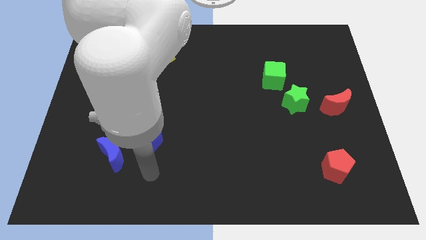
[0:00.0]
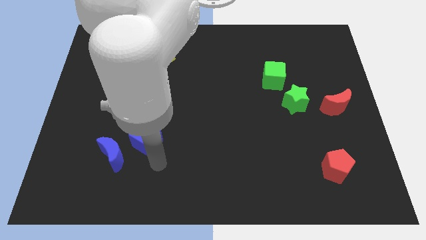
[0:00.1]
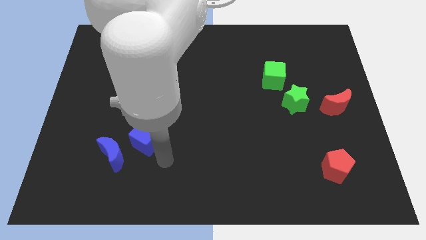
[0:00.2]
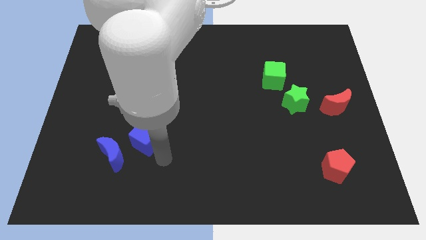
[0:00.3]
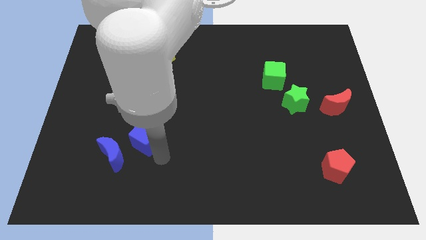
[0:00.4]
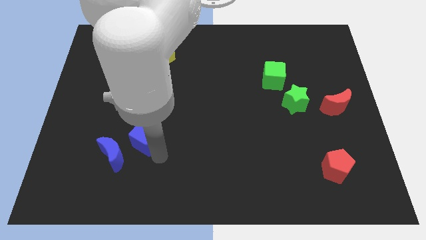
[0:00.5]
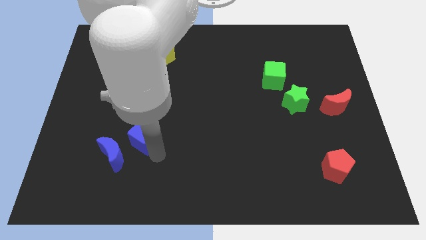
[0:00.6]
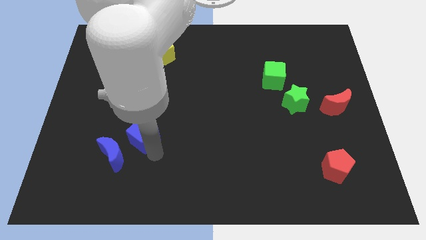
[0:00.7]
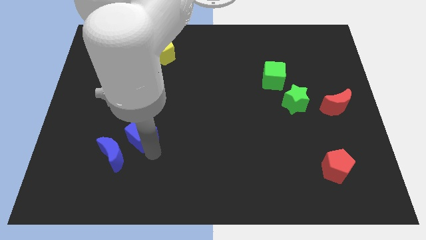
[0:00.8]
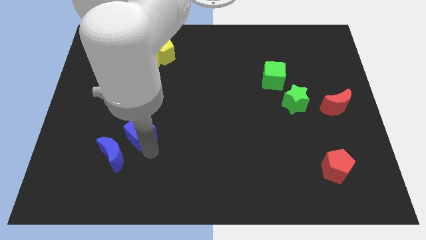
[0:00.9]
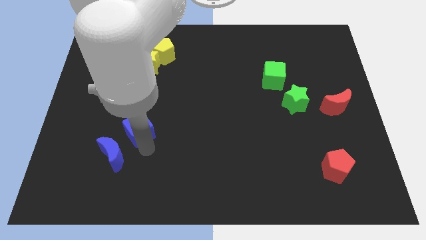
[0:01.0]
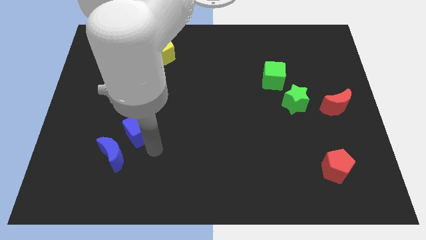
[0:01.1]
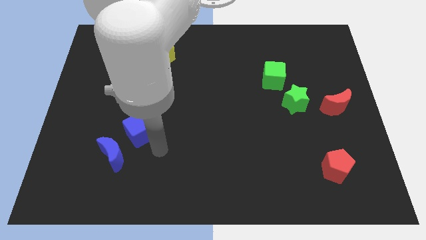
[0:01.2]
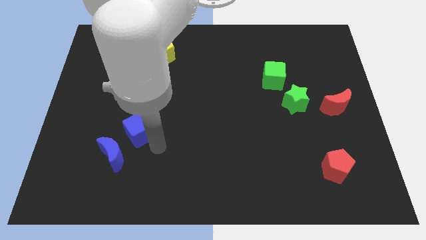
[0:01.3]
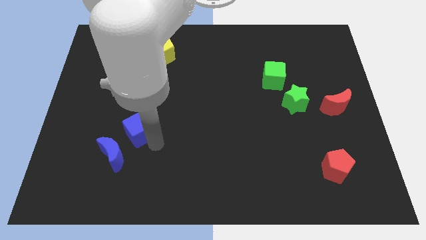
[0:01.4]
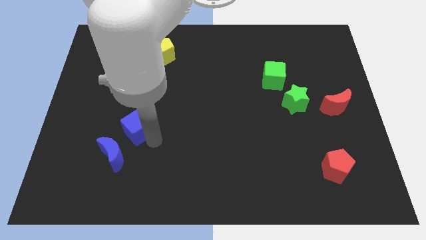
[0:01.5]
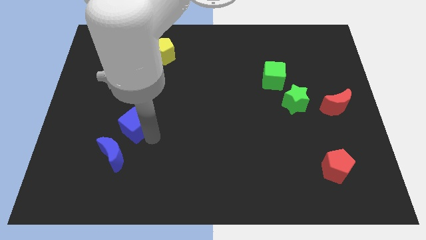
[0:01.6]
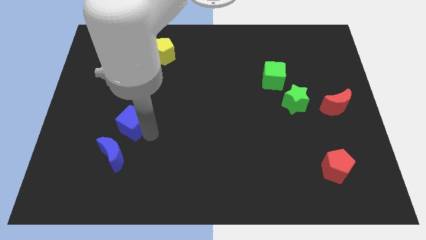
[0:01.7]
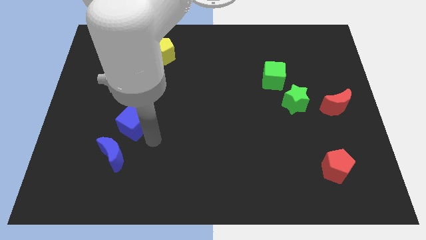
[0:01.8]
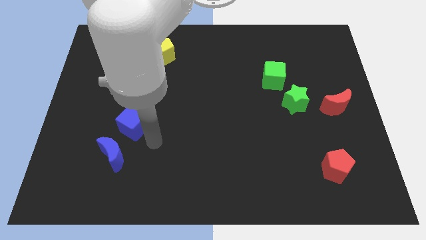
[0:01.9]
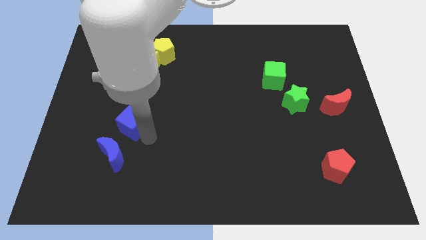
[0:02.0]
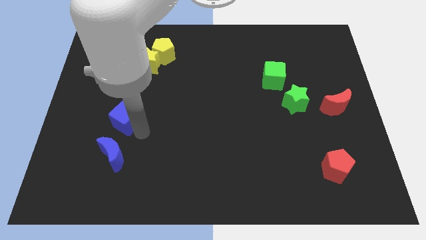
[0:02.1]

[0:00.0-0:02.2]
move the blue cube a bit up and left

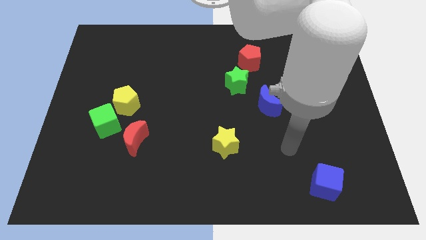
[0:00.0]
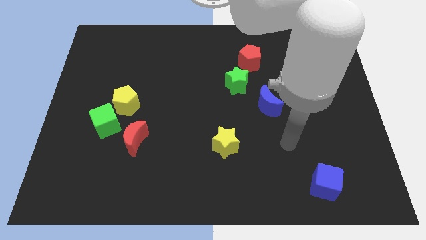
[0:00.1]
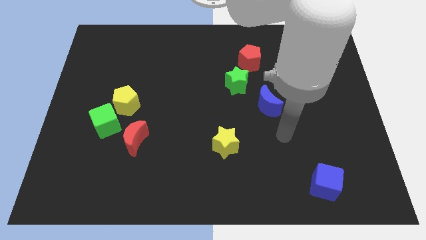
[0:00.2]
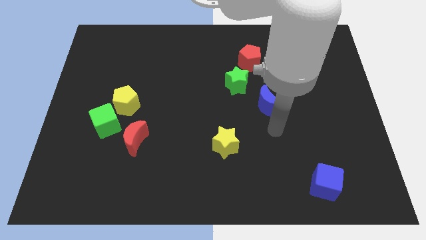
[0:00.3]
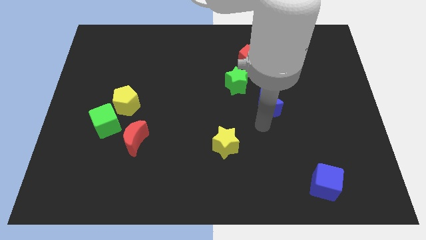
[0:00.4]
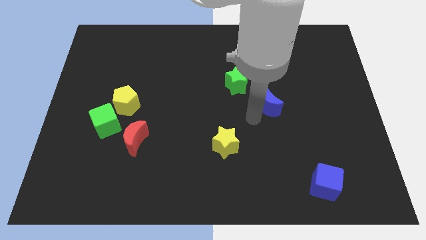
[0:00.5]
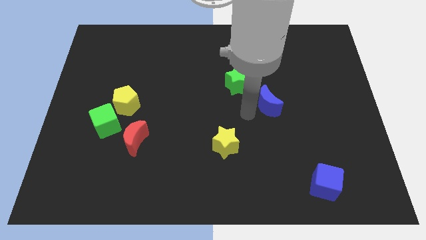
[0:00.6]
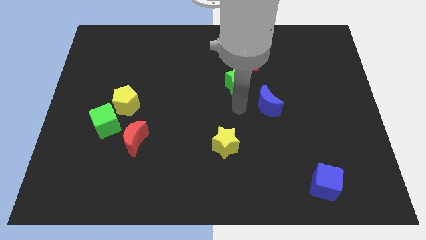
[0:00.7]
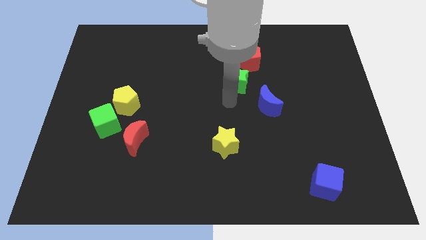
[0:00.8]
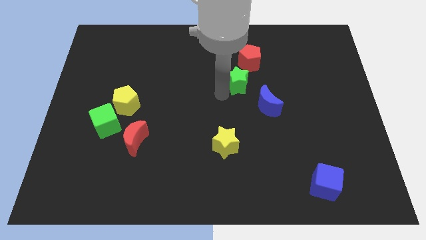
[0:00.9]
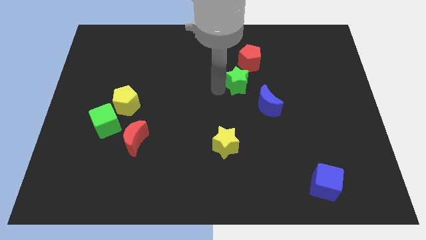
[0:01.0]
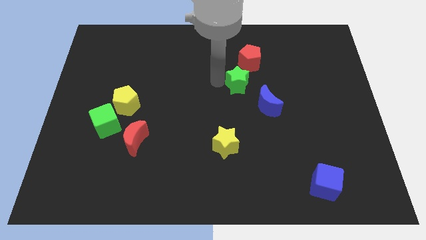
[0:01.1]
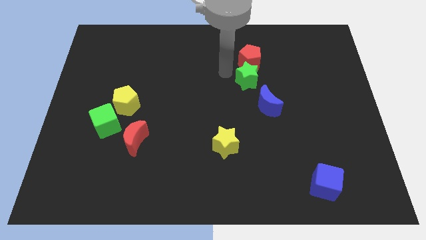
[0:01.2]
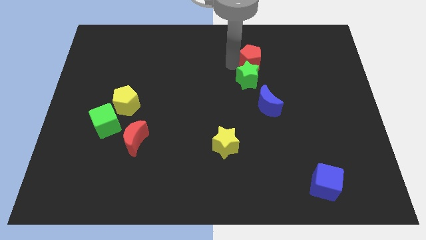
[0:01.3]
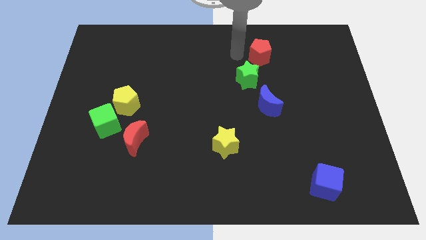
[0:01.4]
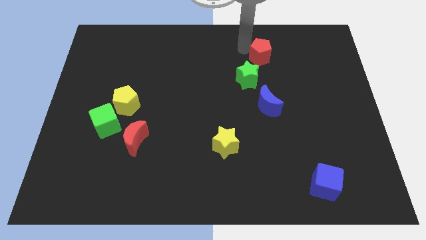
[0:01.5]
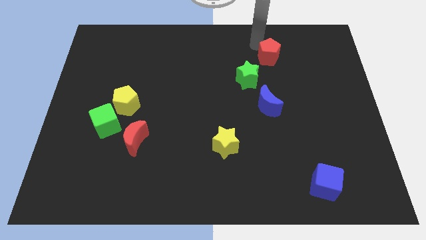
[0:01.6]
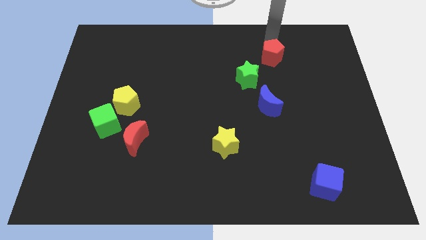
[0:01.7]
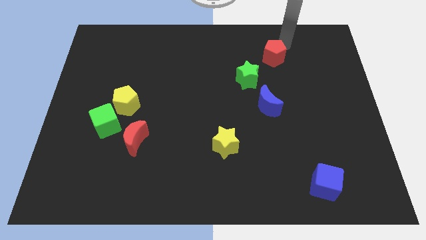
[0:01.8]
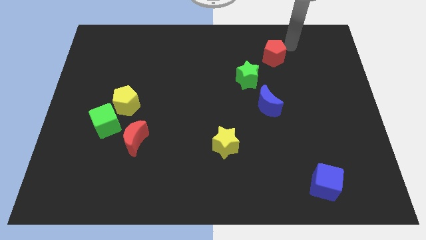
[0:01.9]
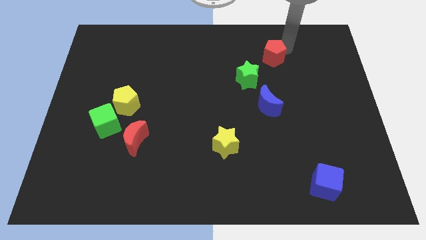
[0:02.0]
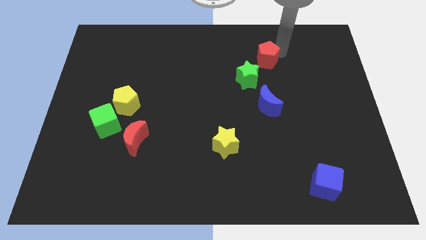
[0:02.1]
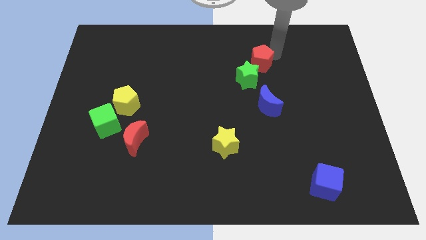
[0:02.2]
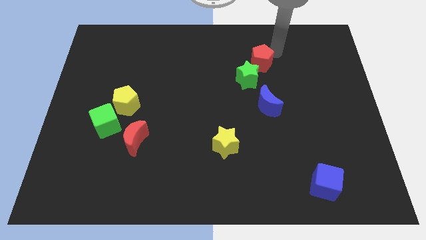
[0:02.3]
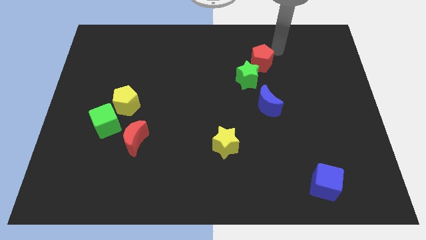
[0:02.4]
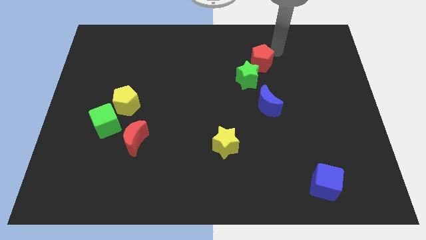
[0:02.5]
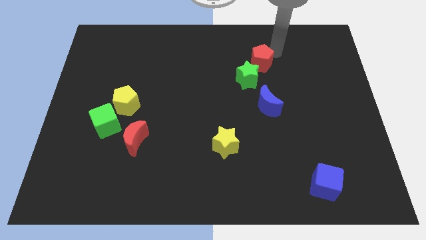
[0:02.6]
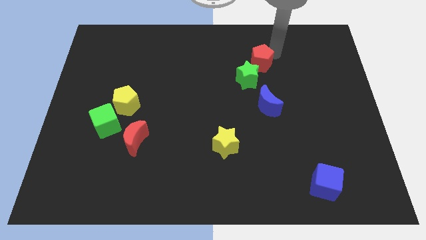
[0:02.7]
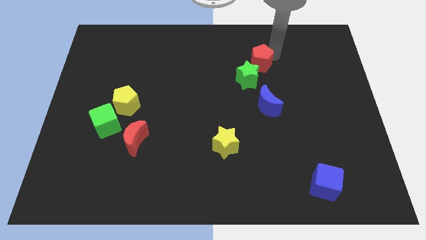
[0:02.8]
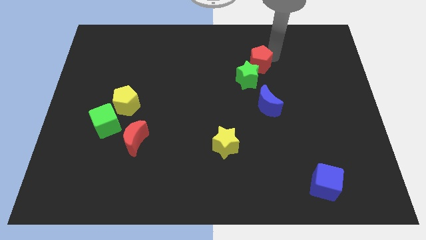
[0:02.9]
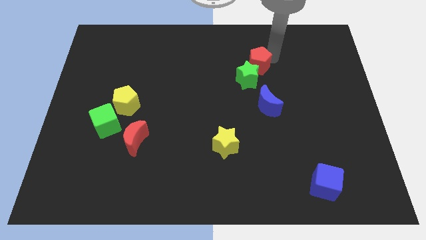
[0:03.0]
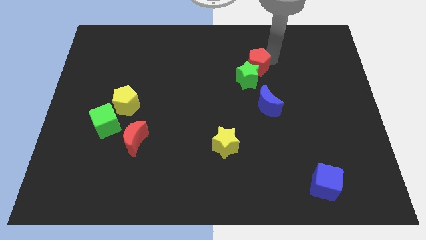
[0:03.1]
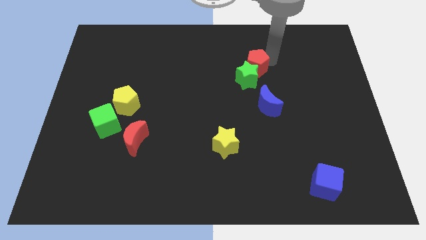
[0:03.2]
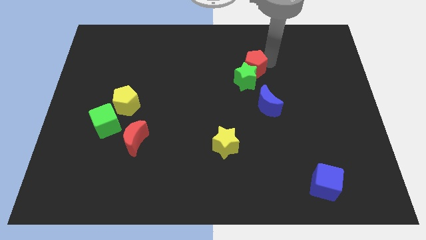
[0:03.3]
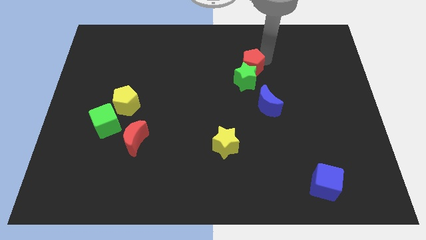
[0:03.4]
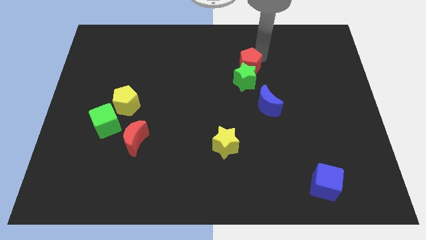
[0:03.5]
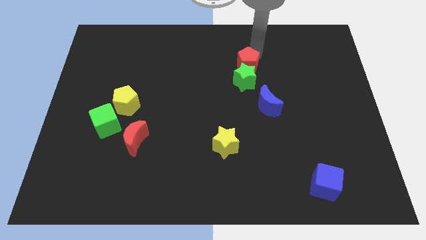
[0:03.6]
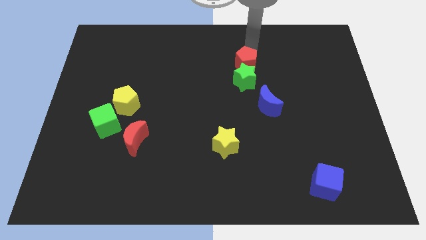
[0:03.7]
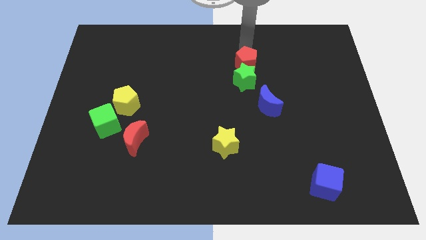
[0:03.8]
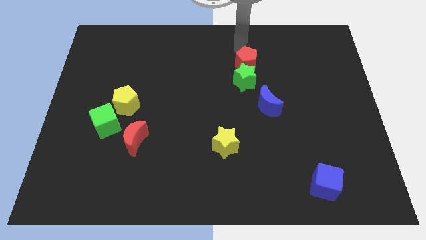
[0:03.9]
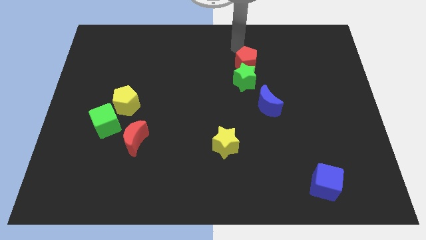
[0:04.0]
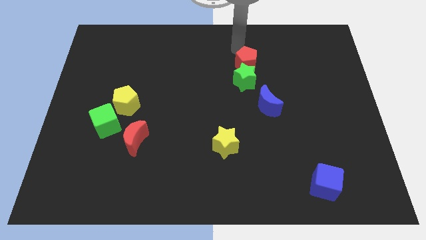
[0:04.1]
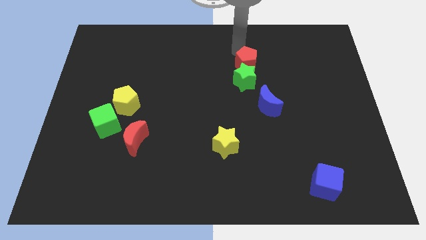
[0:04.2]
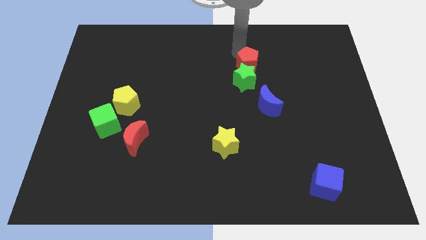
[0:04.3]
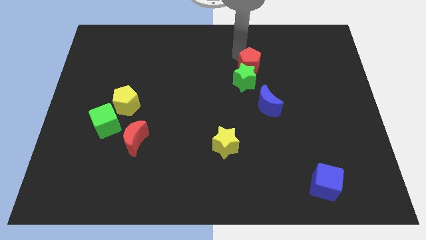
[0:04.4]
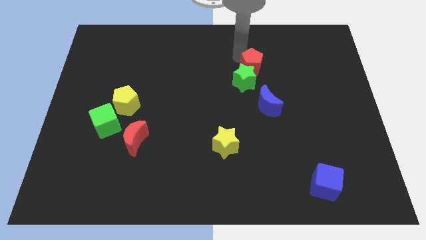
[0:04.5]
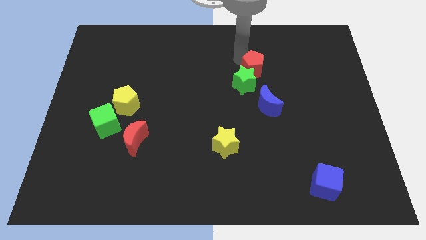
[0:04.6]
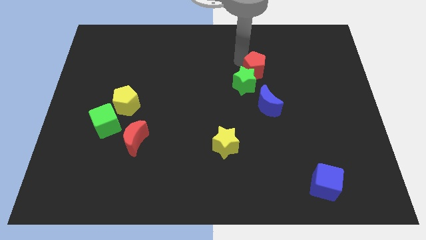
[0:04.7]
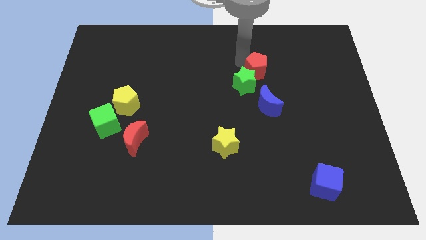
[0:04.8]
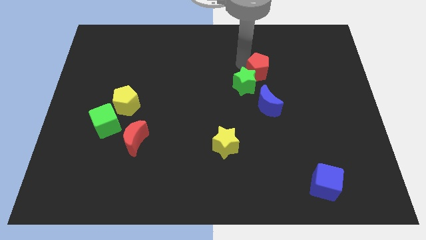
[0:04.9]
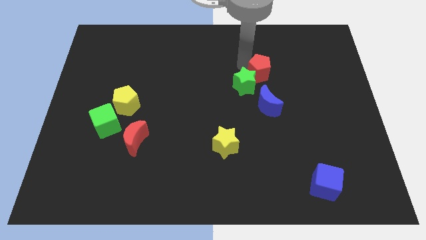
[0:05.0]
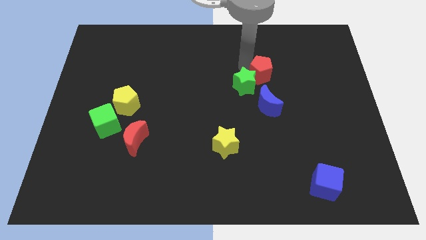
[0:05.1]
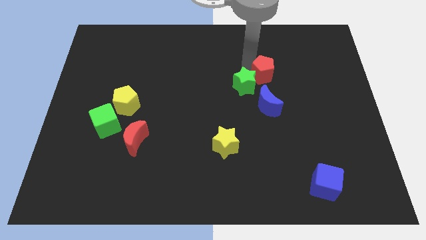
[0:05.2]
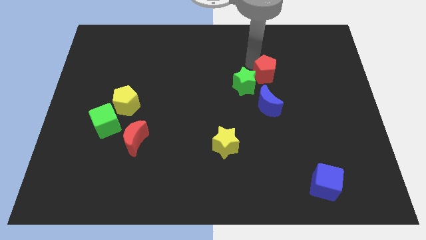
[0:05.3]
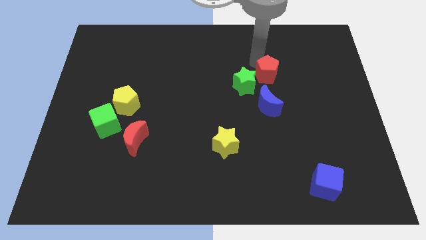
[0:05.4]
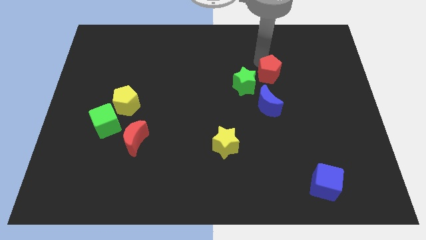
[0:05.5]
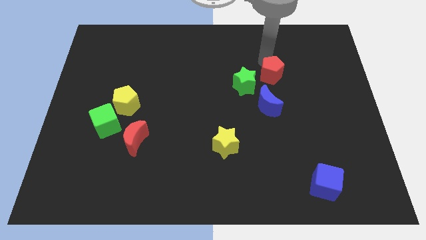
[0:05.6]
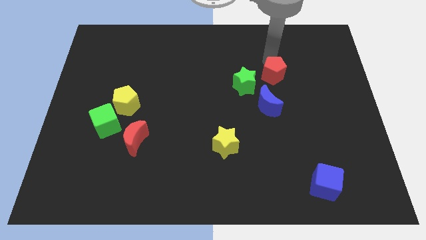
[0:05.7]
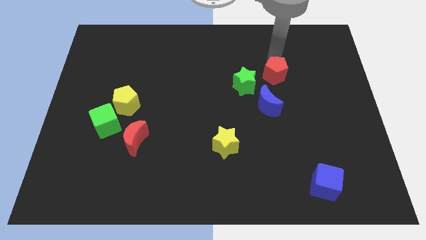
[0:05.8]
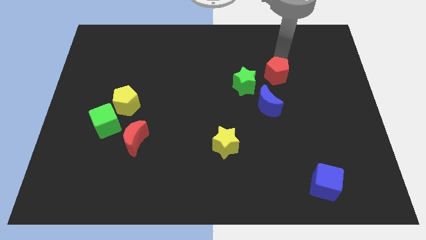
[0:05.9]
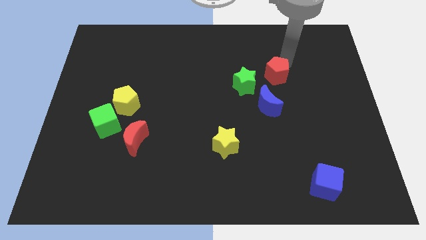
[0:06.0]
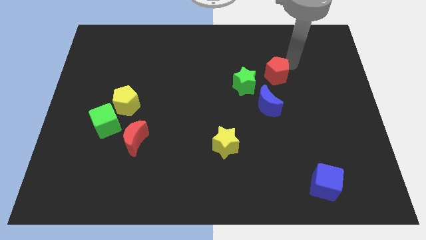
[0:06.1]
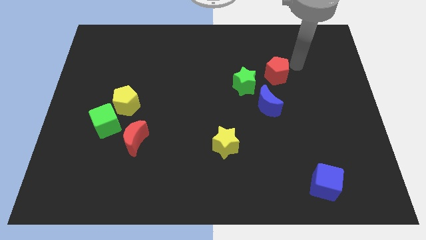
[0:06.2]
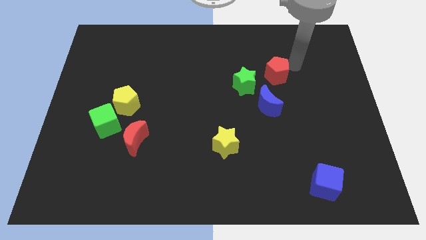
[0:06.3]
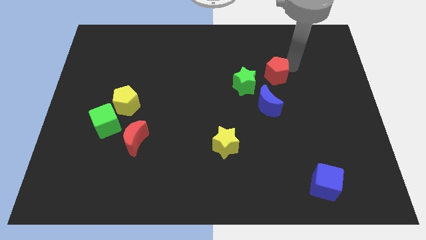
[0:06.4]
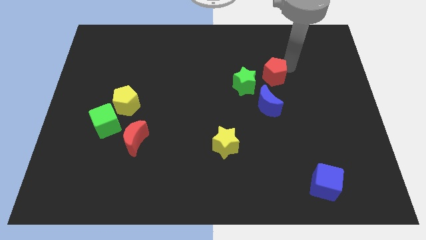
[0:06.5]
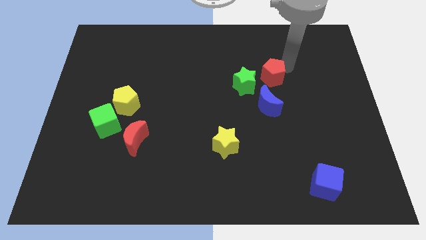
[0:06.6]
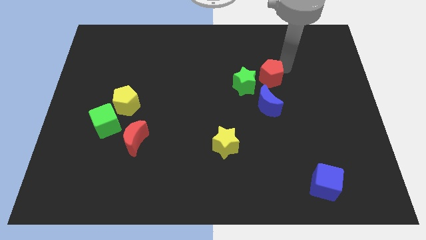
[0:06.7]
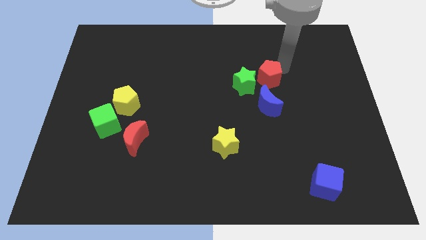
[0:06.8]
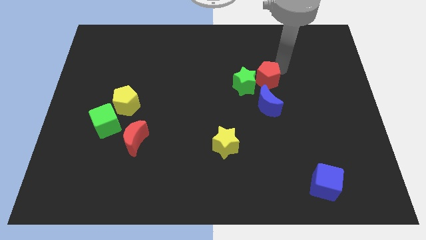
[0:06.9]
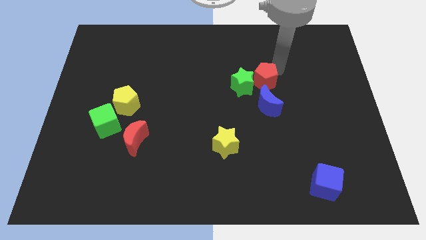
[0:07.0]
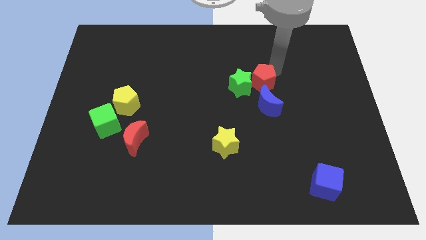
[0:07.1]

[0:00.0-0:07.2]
slightly push the red pentagon down
